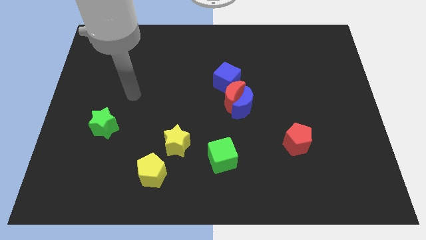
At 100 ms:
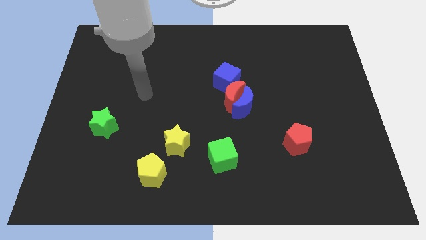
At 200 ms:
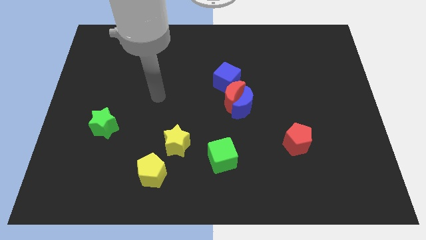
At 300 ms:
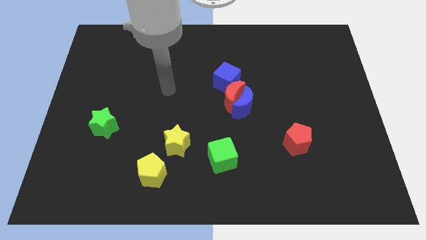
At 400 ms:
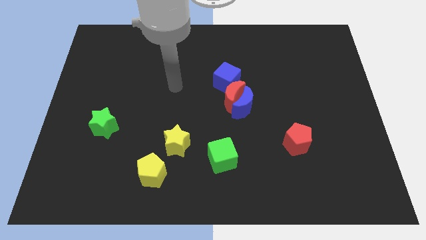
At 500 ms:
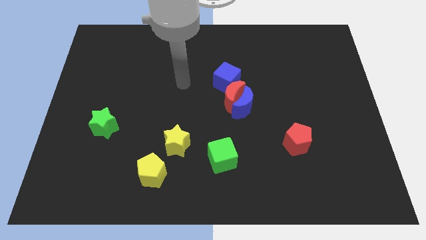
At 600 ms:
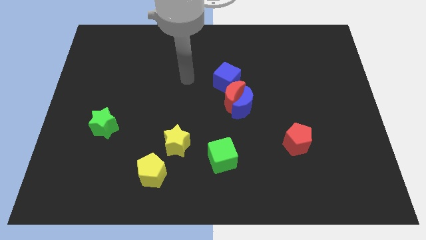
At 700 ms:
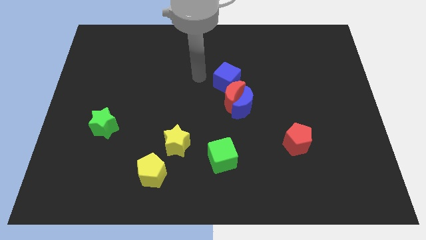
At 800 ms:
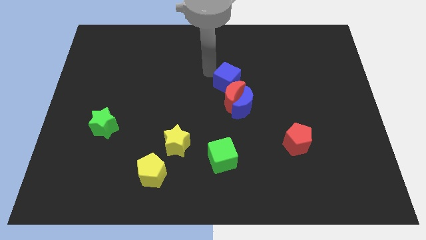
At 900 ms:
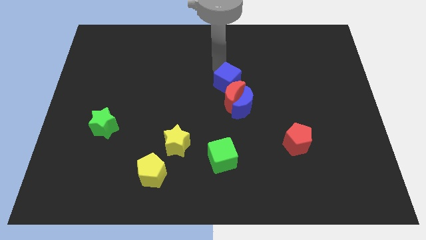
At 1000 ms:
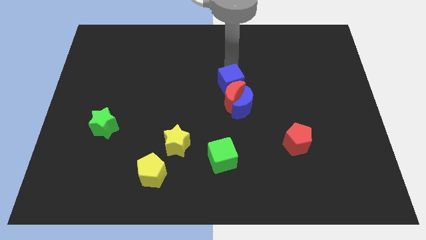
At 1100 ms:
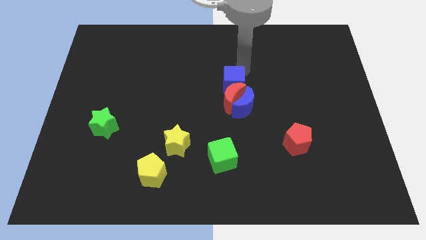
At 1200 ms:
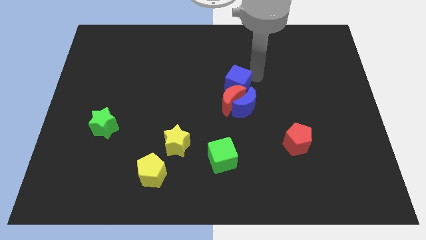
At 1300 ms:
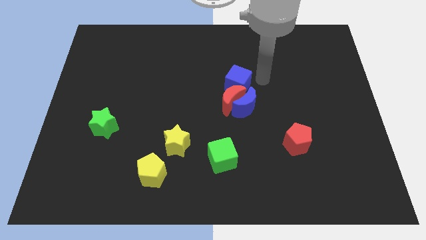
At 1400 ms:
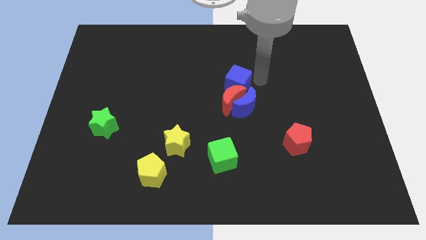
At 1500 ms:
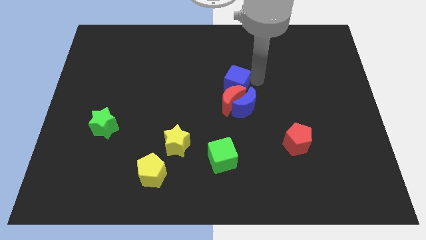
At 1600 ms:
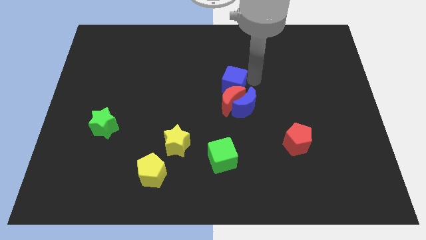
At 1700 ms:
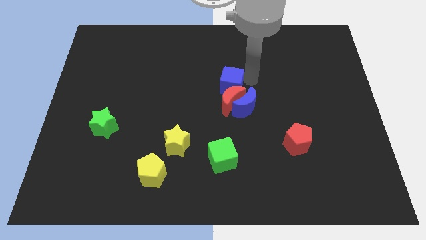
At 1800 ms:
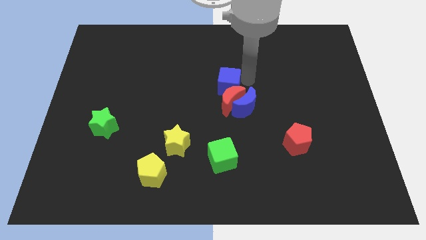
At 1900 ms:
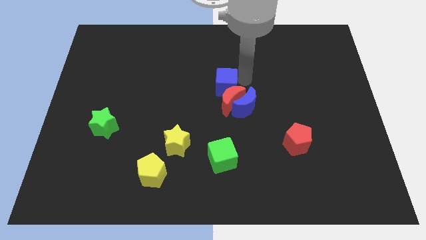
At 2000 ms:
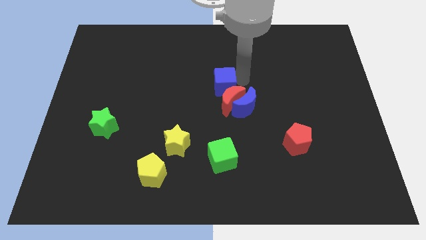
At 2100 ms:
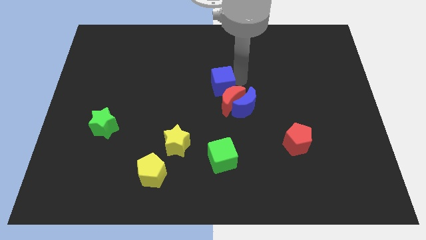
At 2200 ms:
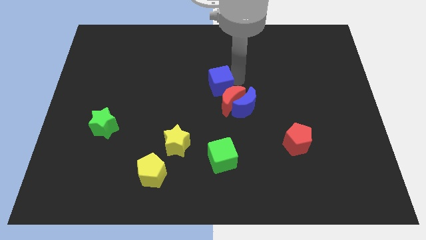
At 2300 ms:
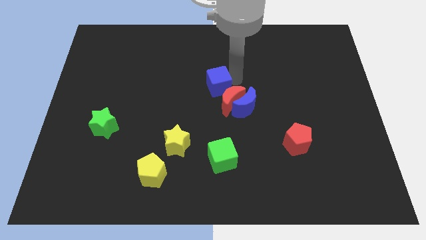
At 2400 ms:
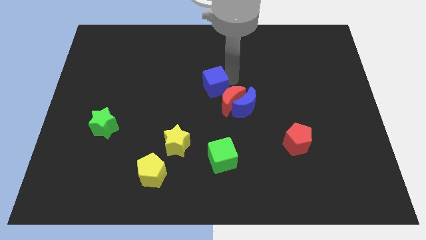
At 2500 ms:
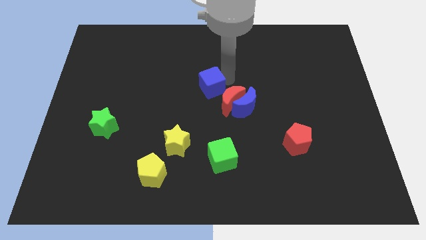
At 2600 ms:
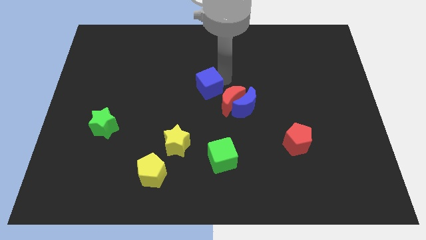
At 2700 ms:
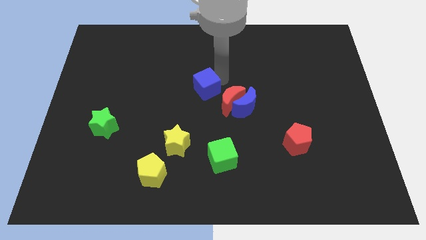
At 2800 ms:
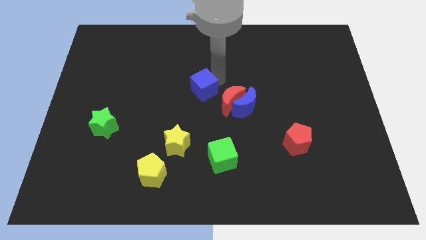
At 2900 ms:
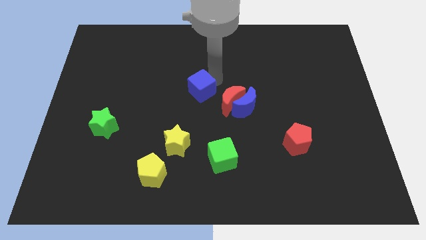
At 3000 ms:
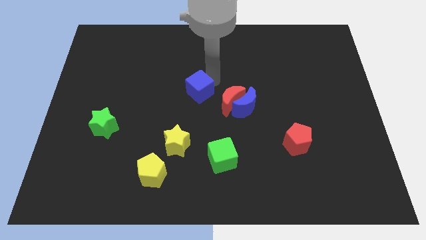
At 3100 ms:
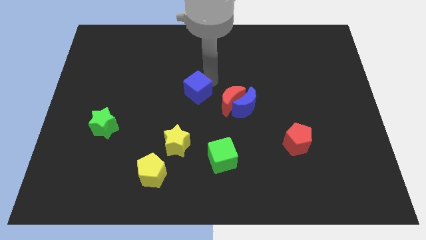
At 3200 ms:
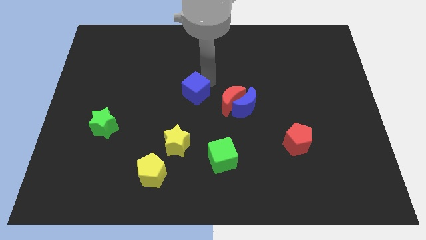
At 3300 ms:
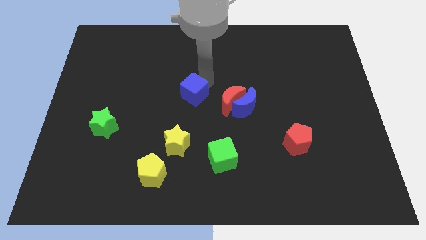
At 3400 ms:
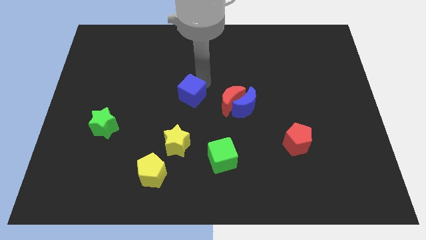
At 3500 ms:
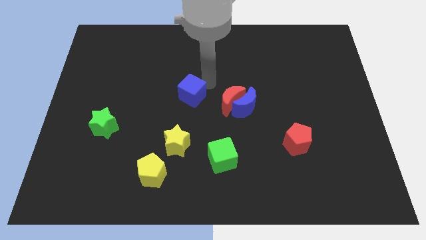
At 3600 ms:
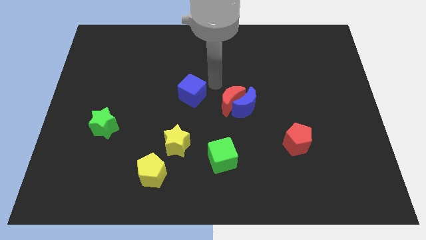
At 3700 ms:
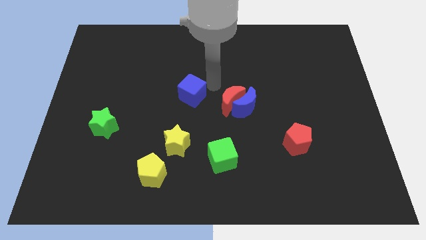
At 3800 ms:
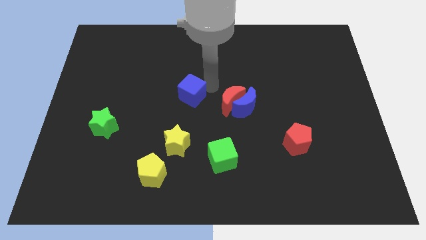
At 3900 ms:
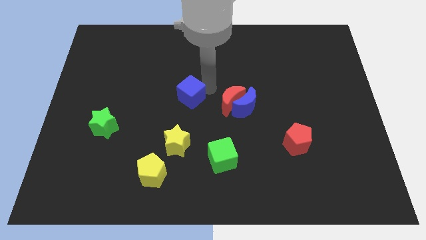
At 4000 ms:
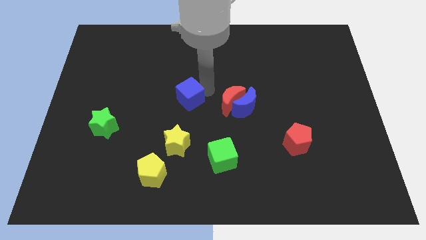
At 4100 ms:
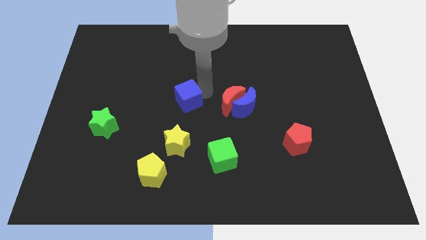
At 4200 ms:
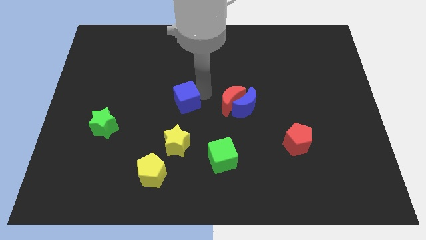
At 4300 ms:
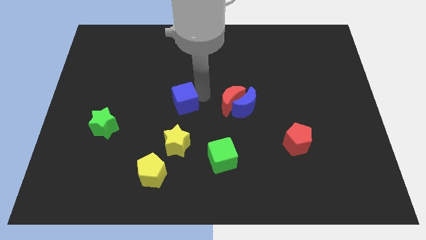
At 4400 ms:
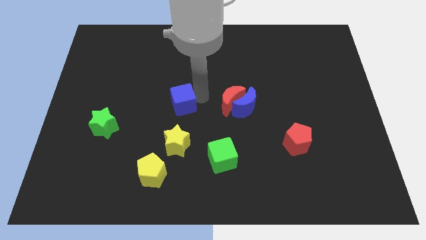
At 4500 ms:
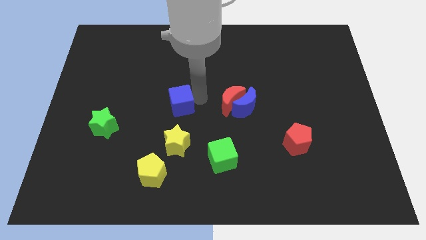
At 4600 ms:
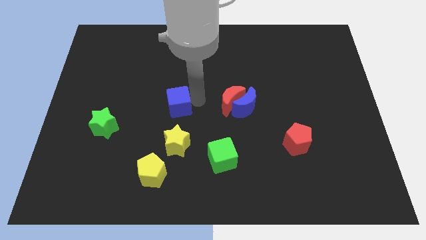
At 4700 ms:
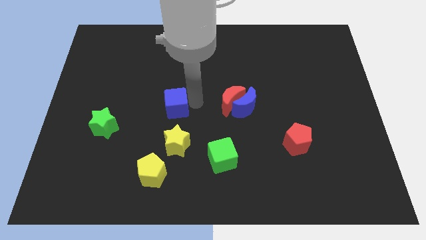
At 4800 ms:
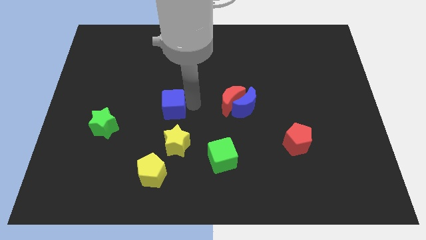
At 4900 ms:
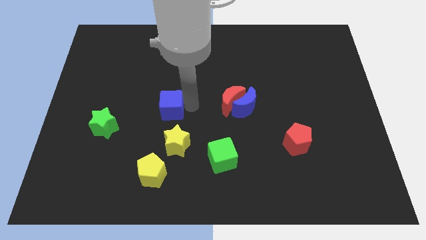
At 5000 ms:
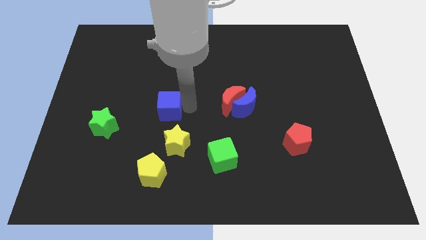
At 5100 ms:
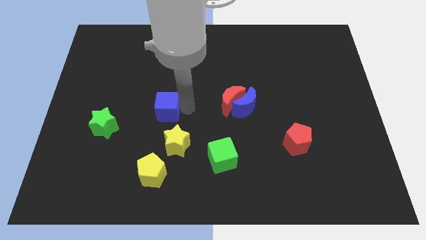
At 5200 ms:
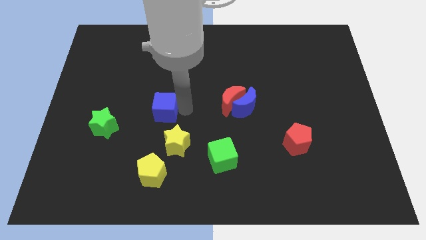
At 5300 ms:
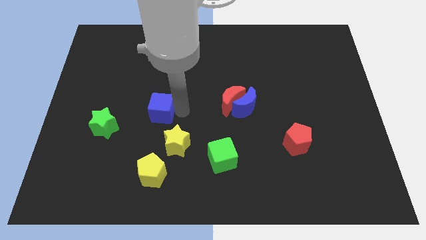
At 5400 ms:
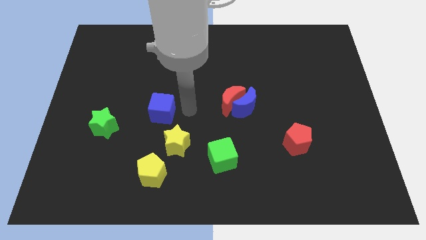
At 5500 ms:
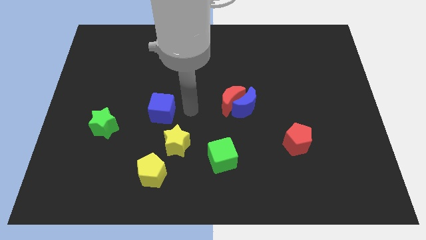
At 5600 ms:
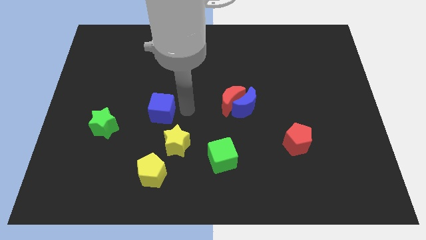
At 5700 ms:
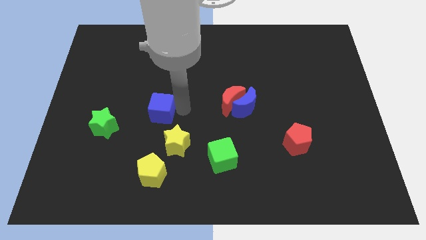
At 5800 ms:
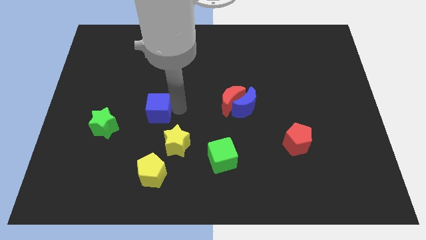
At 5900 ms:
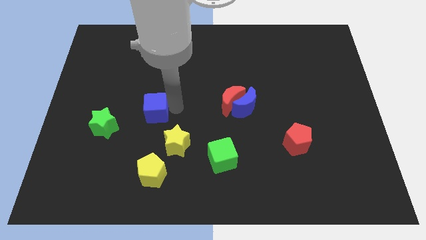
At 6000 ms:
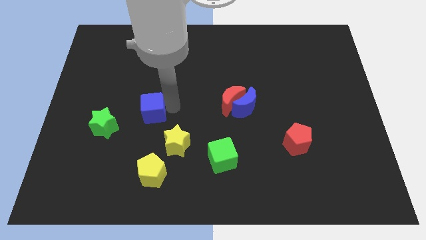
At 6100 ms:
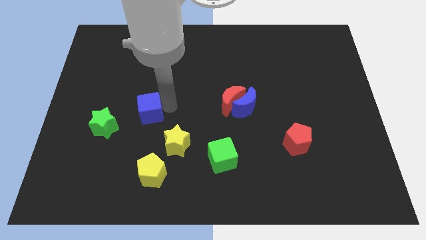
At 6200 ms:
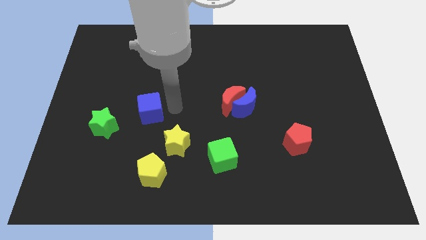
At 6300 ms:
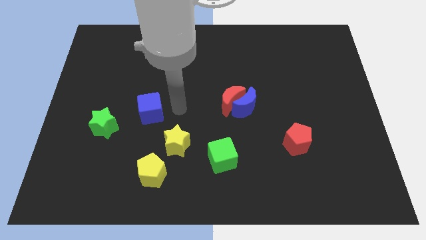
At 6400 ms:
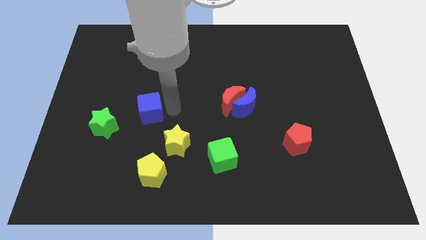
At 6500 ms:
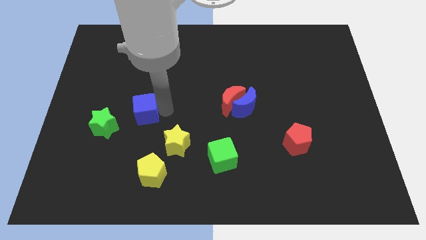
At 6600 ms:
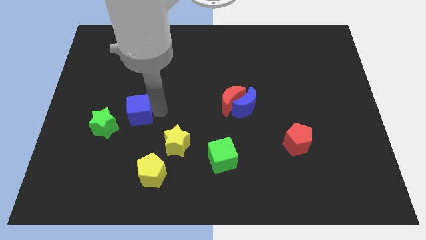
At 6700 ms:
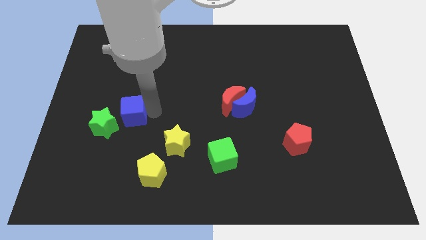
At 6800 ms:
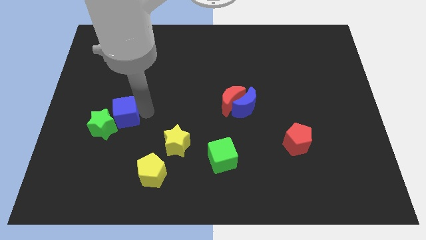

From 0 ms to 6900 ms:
push the blue cube close to the green star
